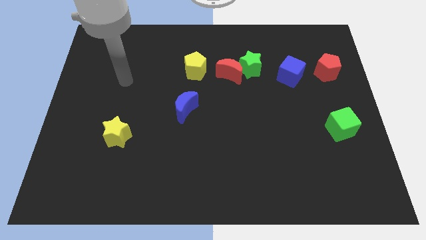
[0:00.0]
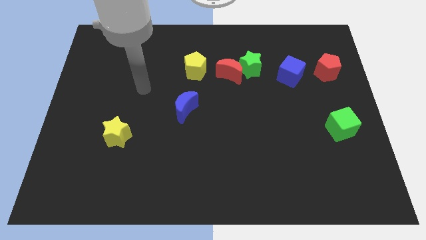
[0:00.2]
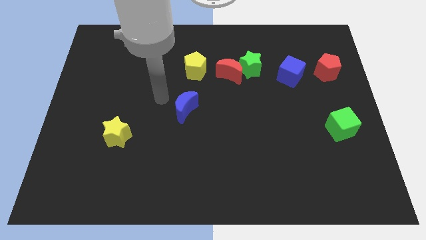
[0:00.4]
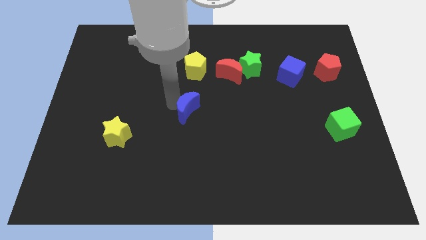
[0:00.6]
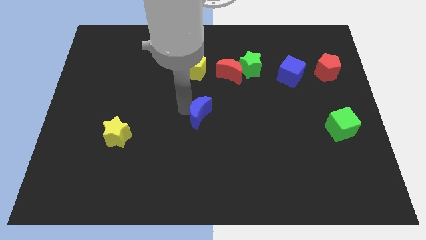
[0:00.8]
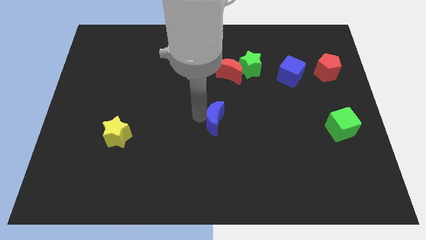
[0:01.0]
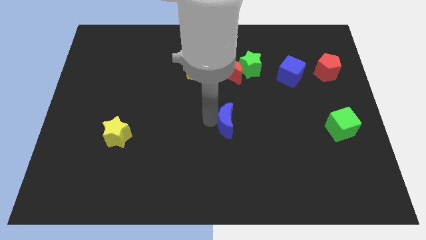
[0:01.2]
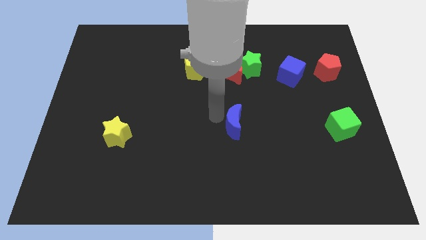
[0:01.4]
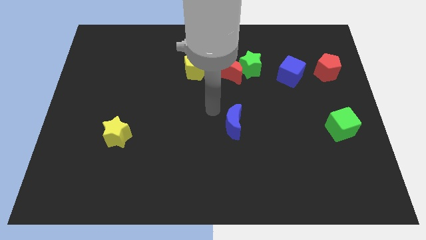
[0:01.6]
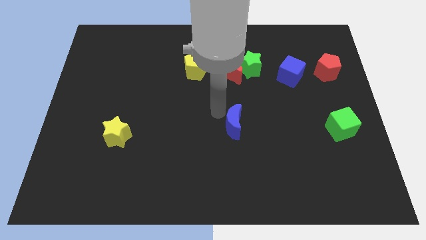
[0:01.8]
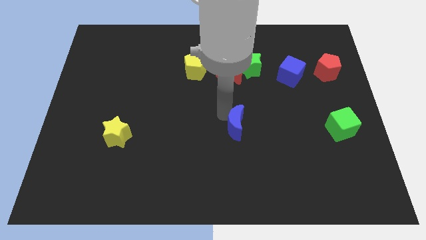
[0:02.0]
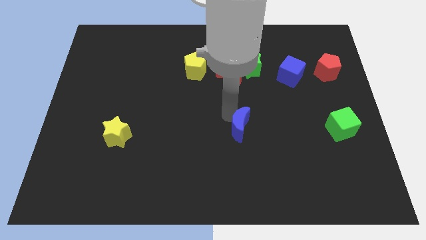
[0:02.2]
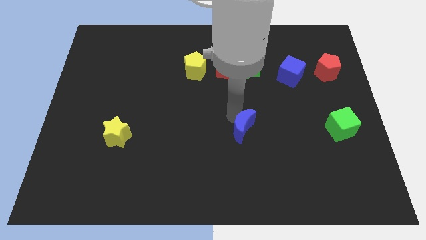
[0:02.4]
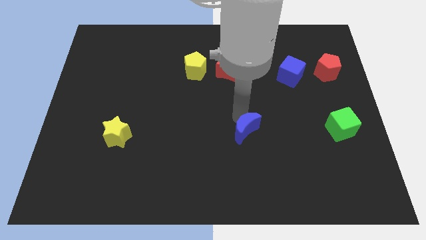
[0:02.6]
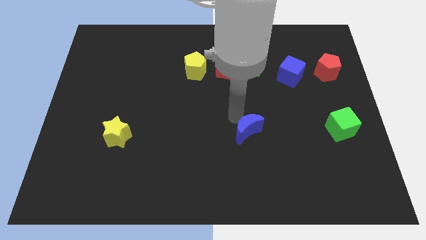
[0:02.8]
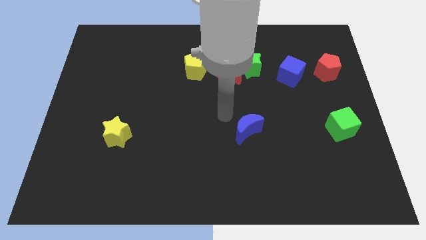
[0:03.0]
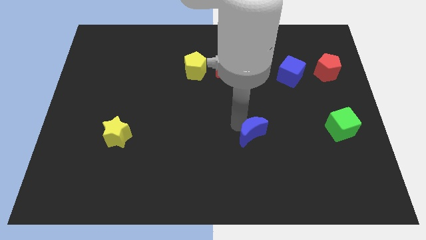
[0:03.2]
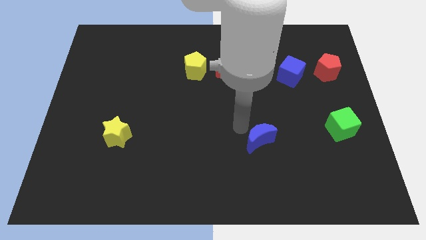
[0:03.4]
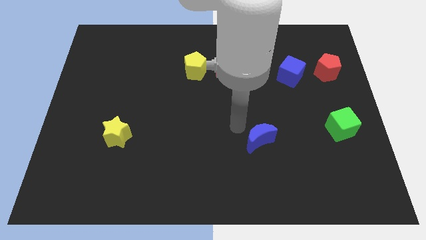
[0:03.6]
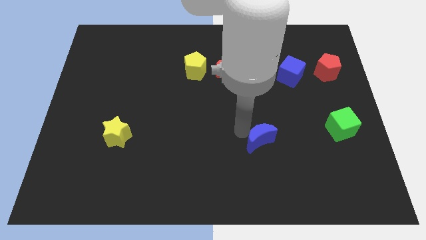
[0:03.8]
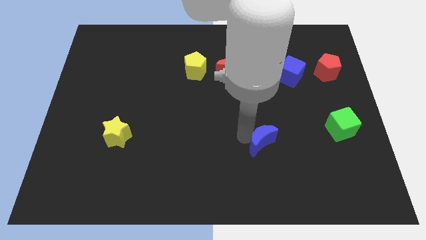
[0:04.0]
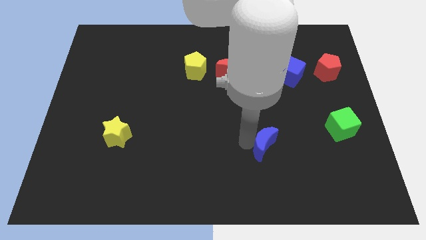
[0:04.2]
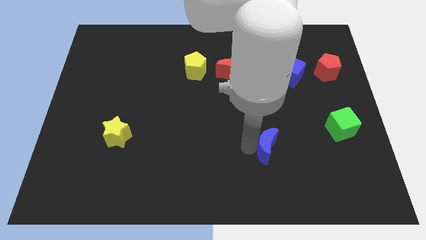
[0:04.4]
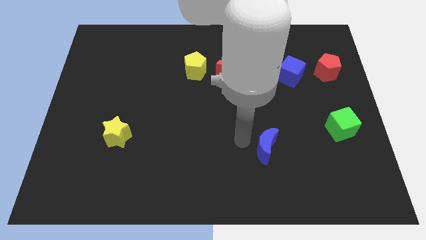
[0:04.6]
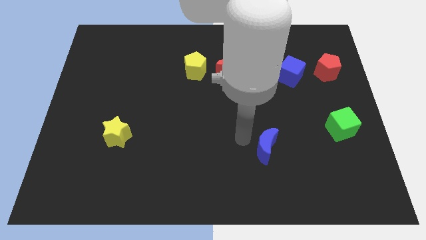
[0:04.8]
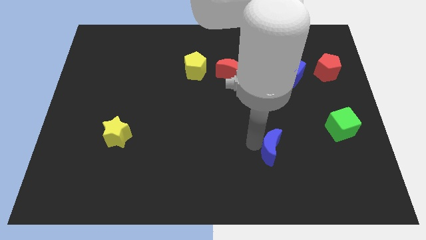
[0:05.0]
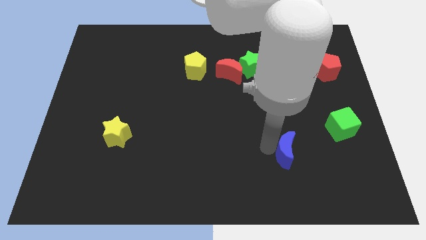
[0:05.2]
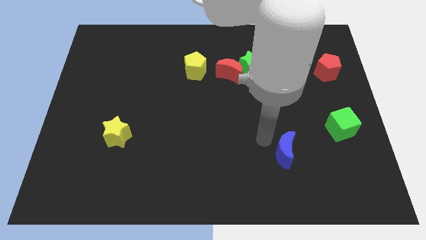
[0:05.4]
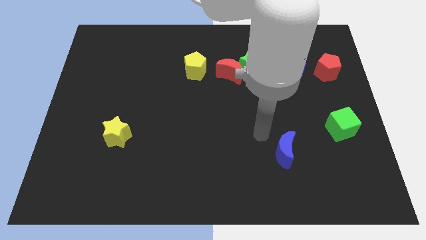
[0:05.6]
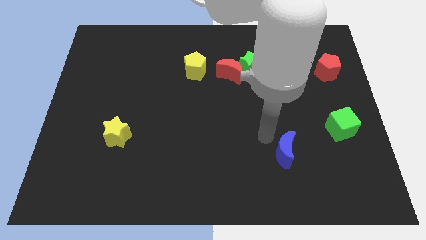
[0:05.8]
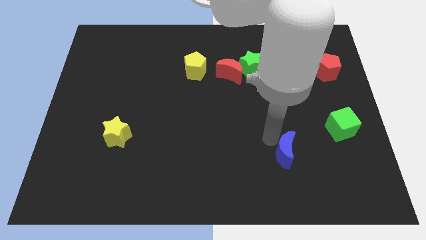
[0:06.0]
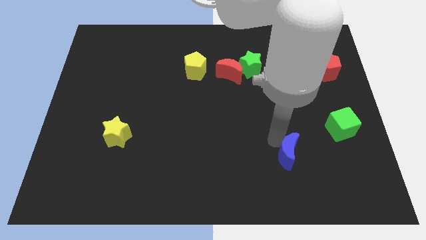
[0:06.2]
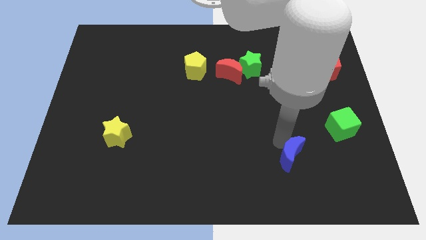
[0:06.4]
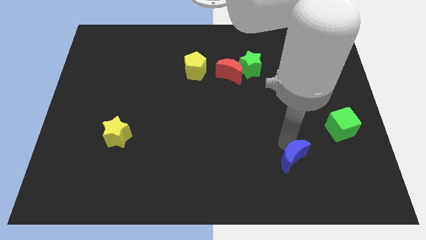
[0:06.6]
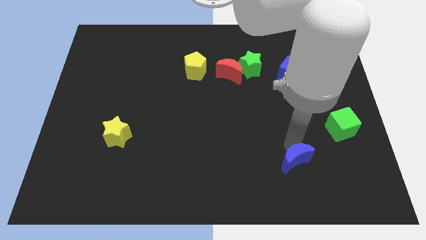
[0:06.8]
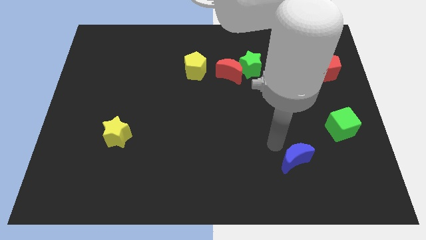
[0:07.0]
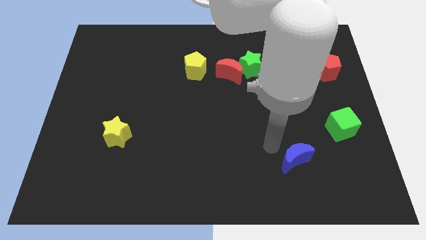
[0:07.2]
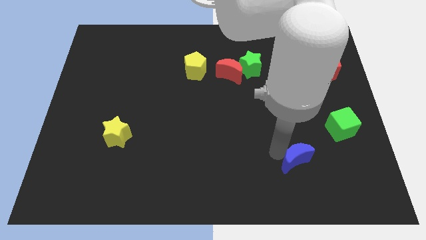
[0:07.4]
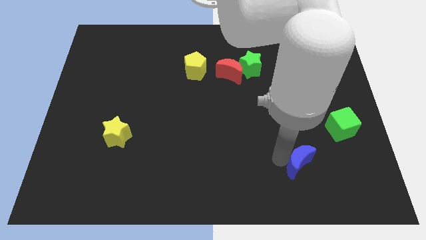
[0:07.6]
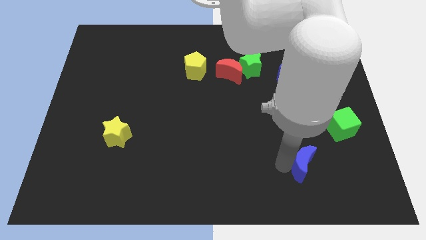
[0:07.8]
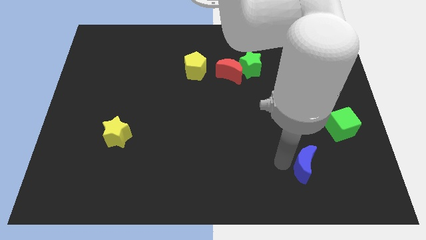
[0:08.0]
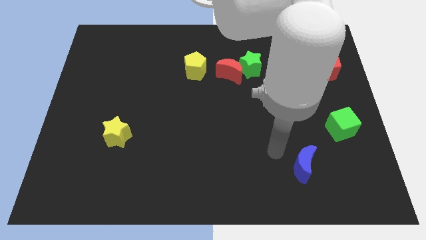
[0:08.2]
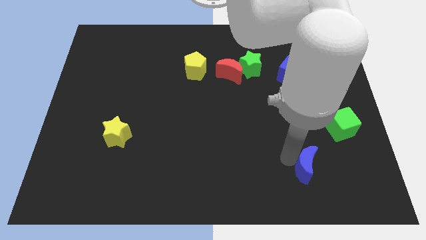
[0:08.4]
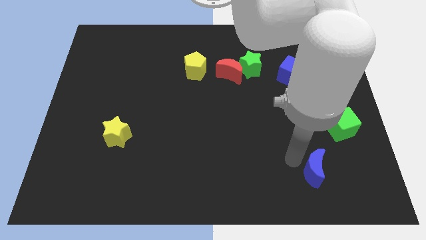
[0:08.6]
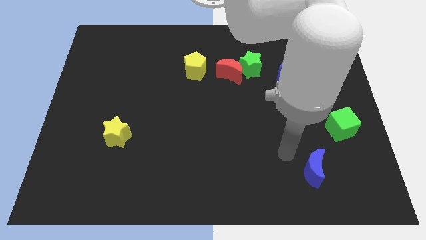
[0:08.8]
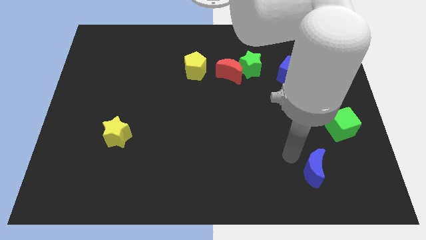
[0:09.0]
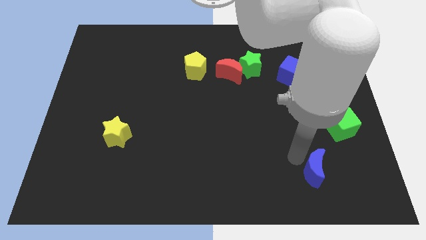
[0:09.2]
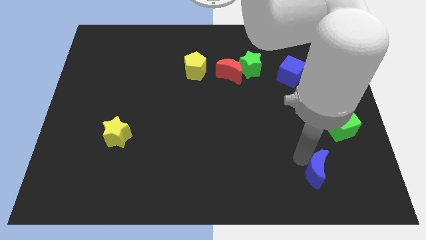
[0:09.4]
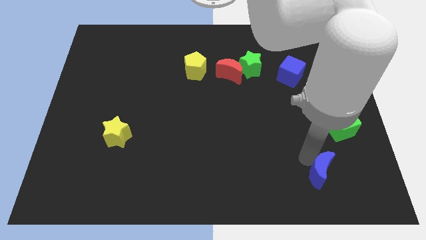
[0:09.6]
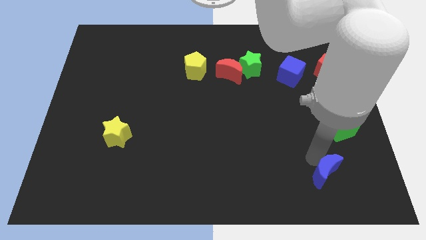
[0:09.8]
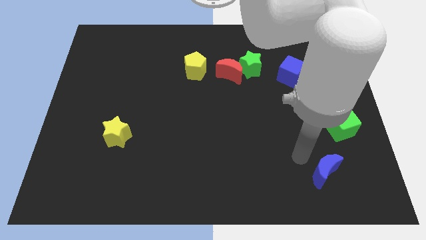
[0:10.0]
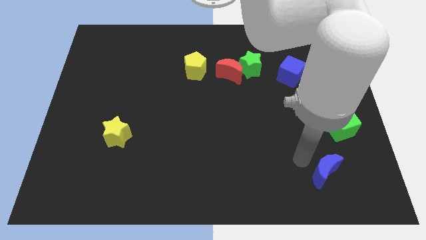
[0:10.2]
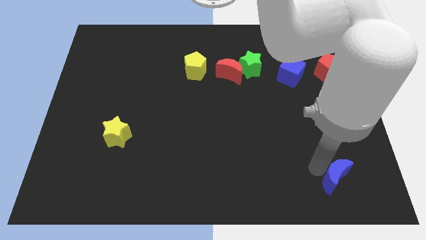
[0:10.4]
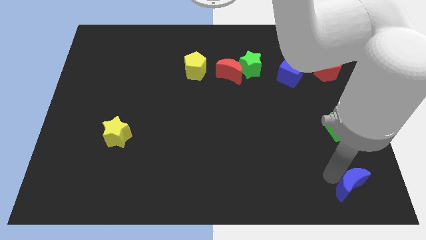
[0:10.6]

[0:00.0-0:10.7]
move the blue moon to the bottom right corner

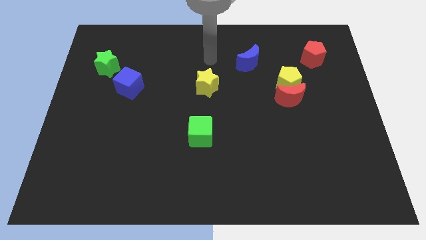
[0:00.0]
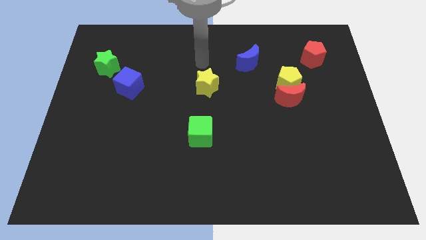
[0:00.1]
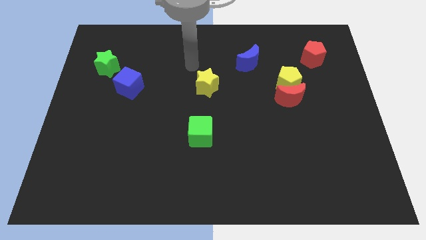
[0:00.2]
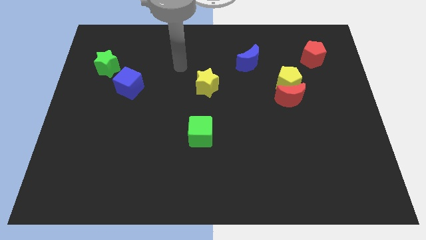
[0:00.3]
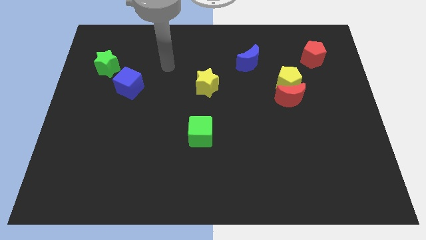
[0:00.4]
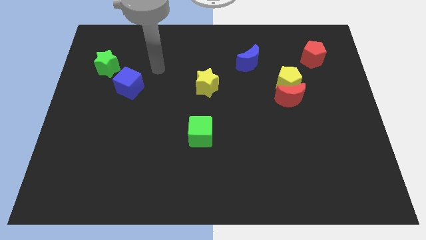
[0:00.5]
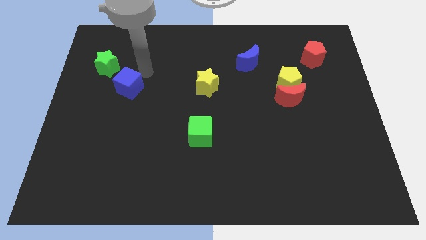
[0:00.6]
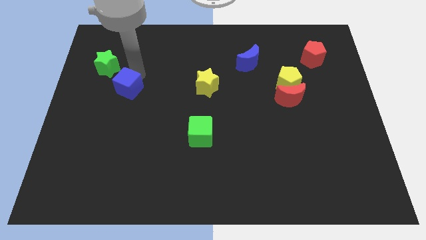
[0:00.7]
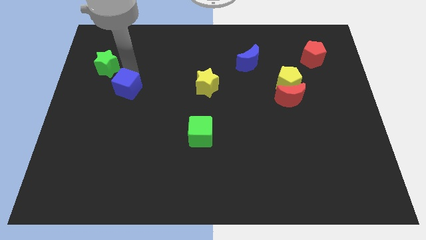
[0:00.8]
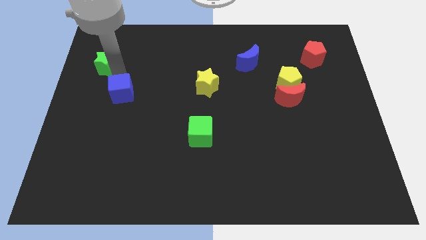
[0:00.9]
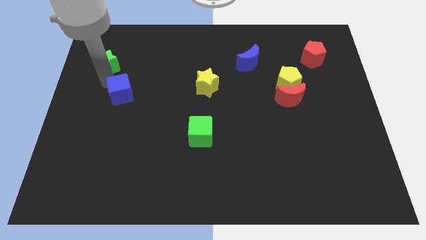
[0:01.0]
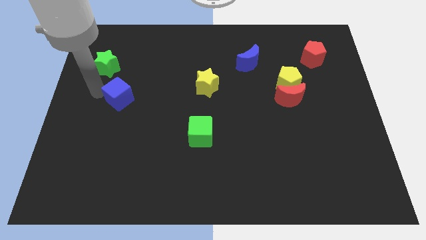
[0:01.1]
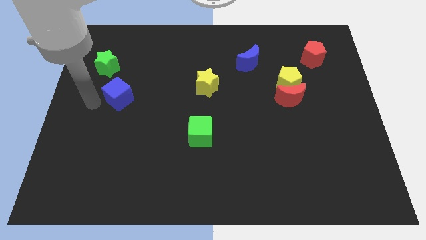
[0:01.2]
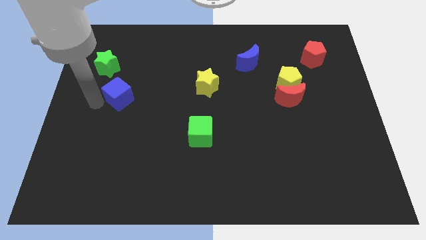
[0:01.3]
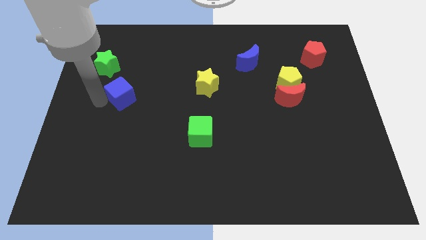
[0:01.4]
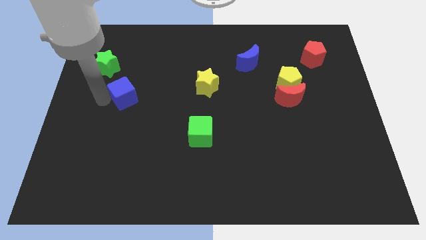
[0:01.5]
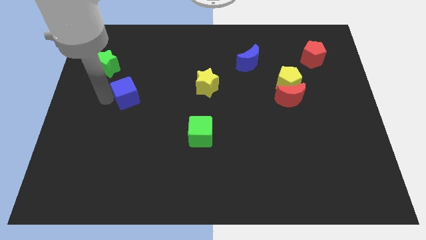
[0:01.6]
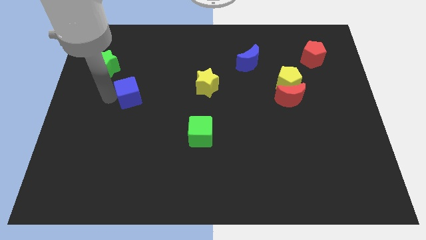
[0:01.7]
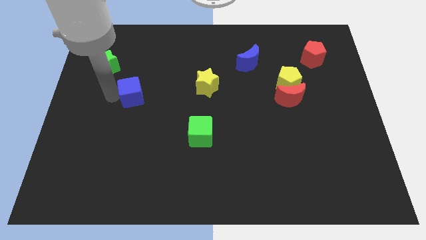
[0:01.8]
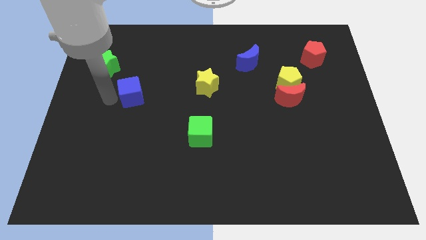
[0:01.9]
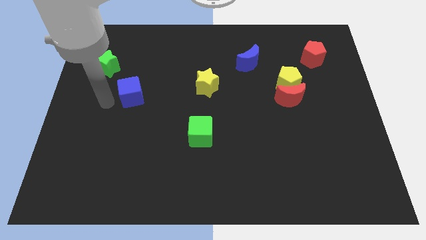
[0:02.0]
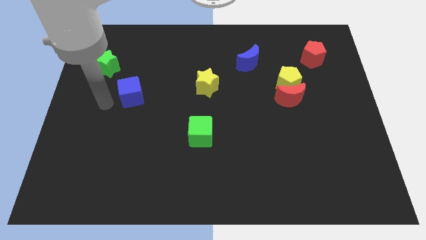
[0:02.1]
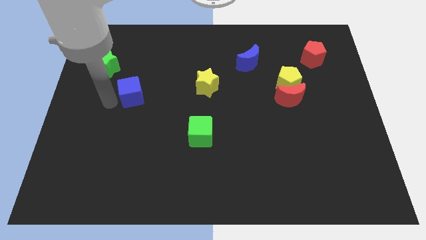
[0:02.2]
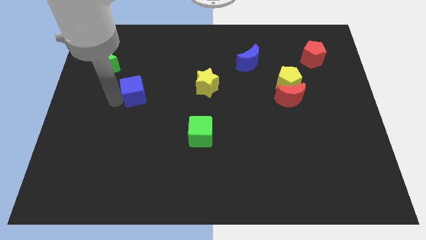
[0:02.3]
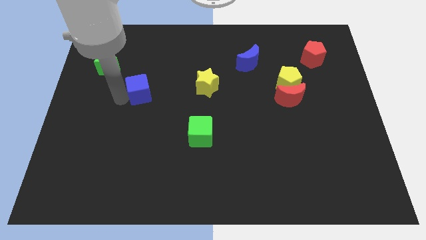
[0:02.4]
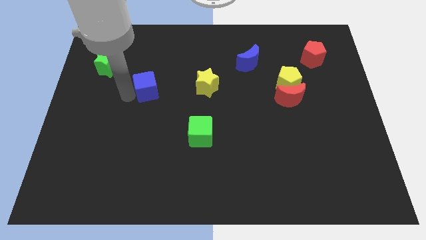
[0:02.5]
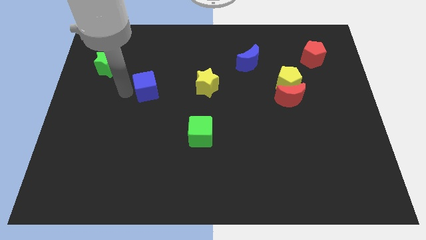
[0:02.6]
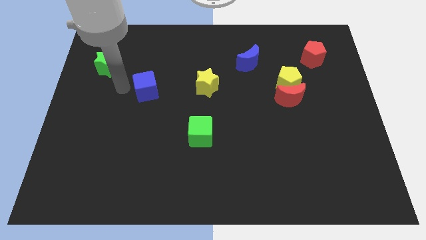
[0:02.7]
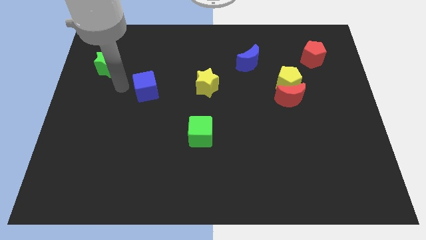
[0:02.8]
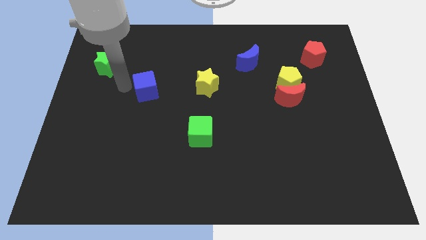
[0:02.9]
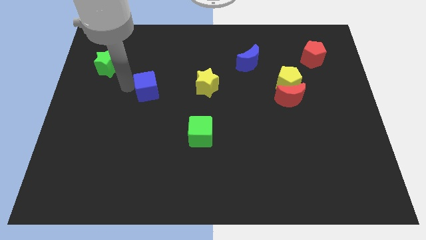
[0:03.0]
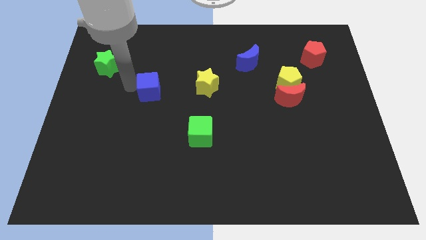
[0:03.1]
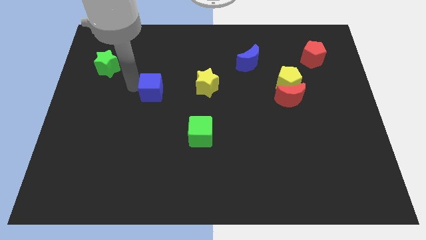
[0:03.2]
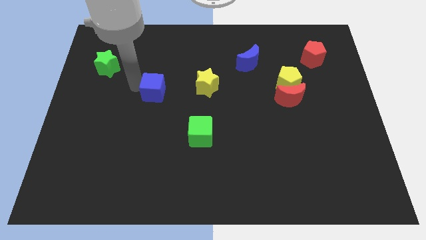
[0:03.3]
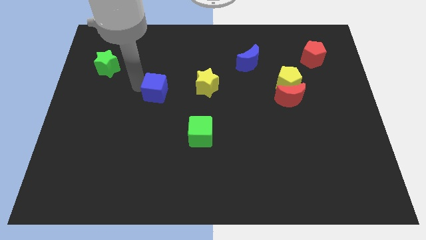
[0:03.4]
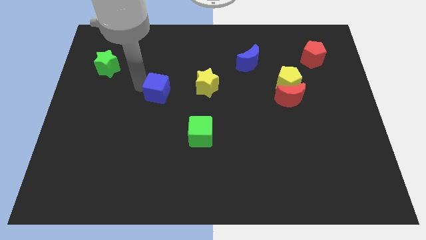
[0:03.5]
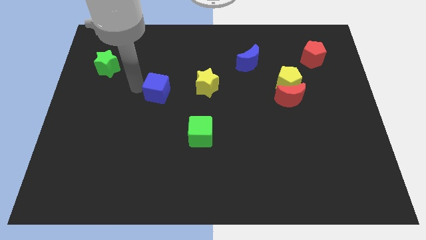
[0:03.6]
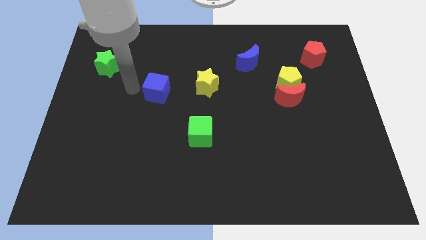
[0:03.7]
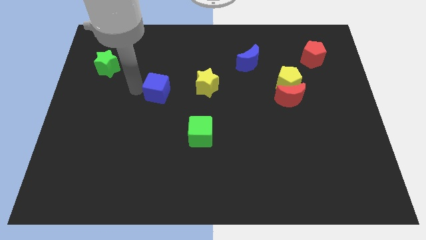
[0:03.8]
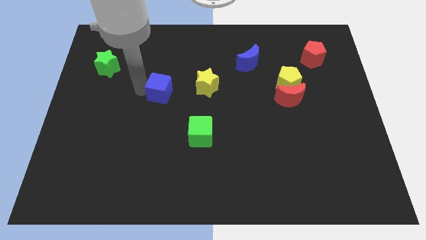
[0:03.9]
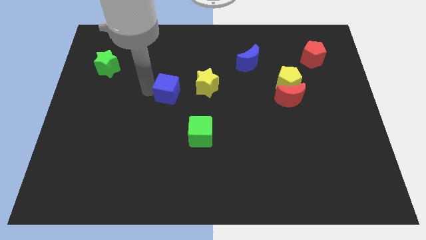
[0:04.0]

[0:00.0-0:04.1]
slide the blue cube to the middle
